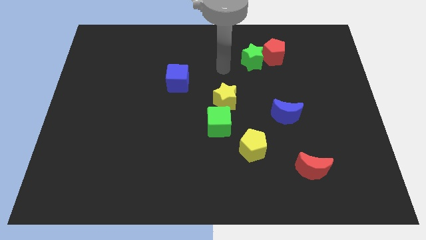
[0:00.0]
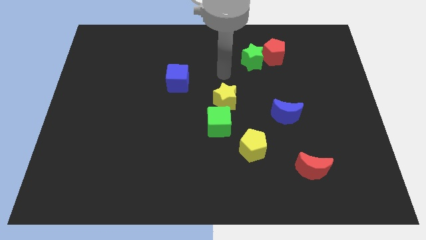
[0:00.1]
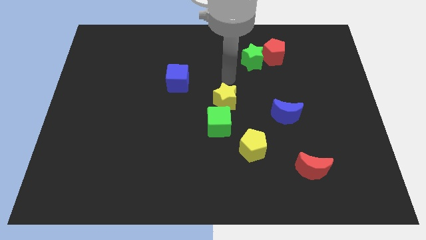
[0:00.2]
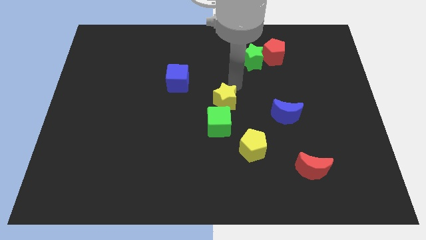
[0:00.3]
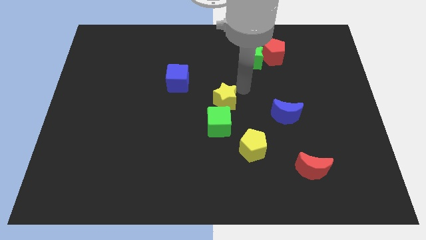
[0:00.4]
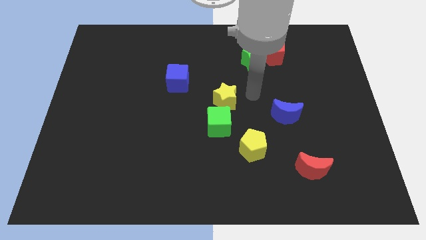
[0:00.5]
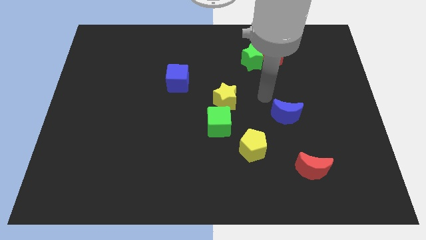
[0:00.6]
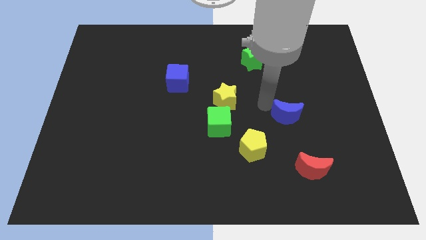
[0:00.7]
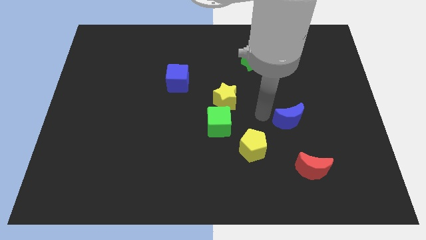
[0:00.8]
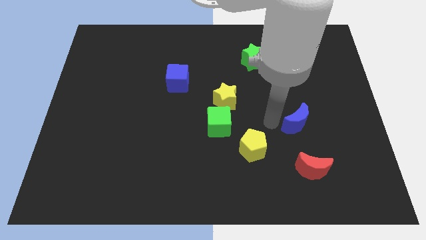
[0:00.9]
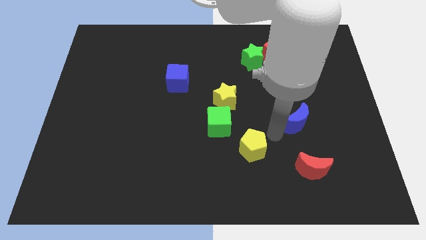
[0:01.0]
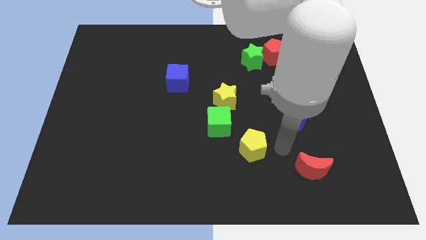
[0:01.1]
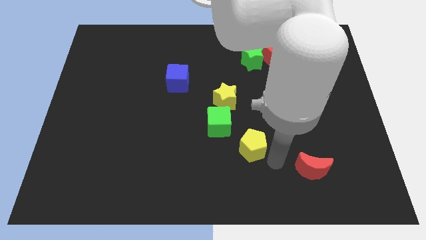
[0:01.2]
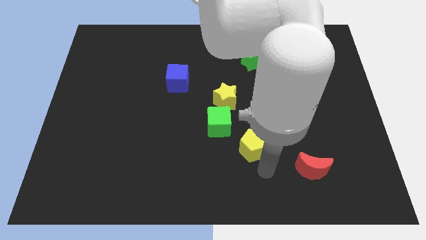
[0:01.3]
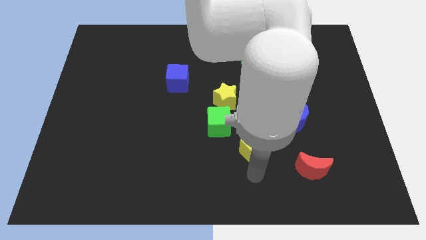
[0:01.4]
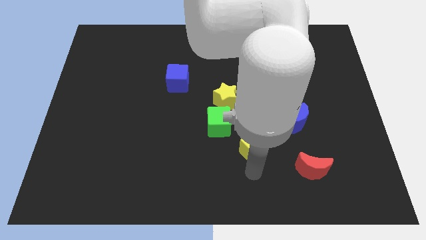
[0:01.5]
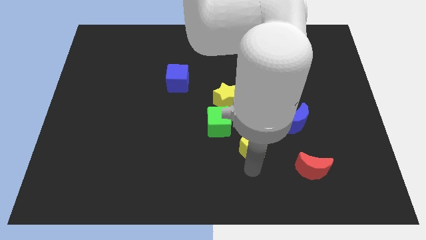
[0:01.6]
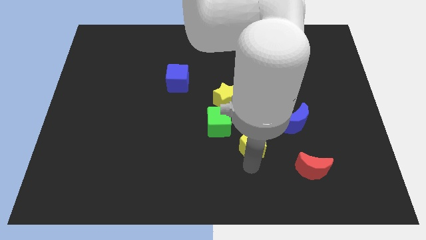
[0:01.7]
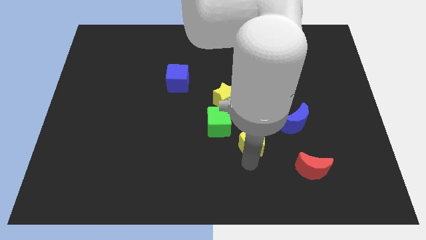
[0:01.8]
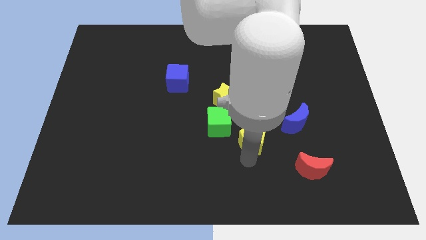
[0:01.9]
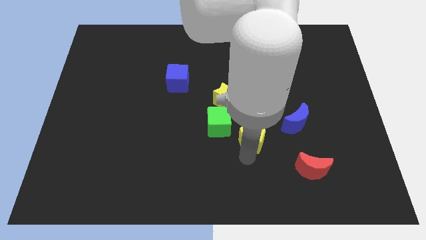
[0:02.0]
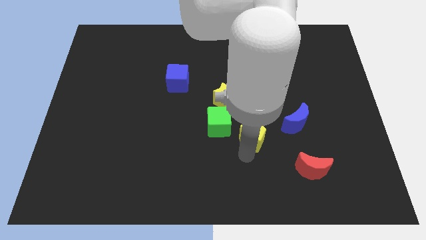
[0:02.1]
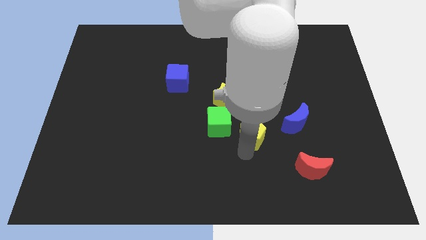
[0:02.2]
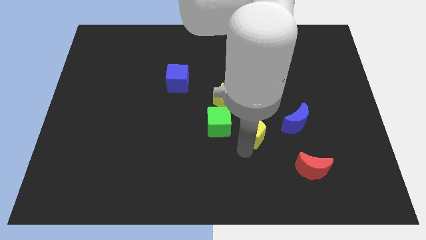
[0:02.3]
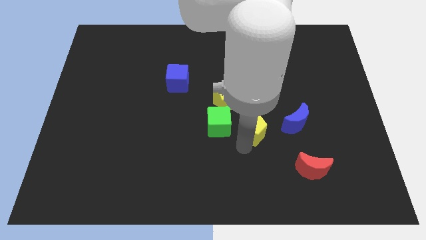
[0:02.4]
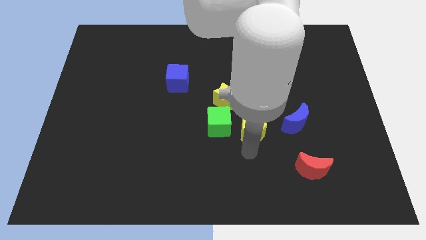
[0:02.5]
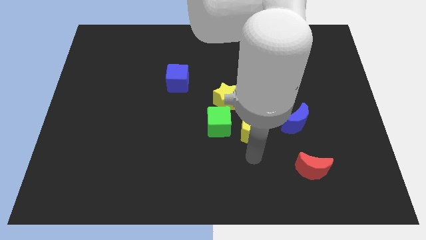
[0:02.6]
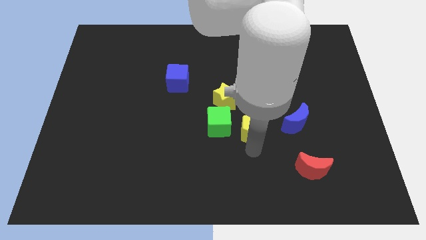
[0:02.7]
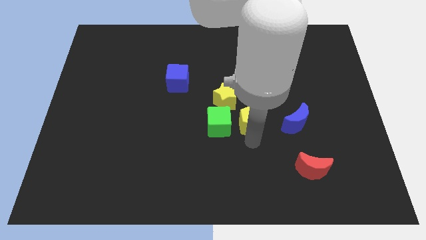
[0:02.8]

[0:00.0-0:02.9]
slightly slide the yellow pentagon up

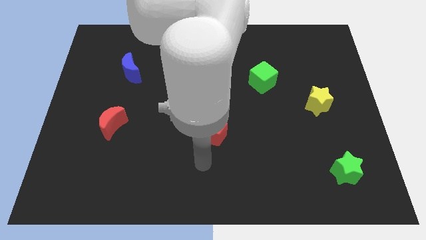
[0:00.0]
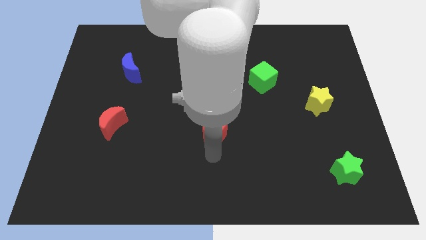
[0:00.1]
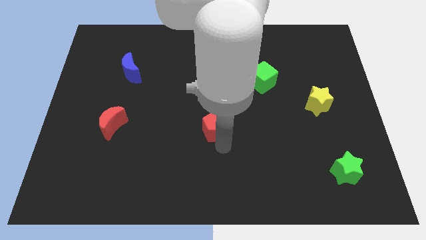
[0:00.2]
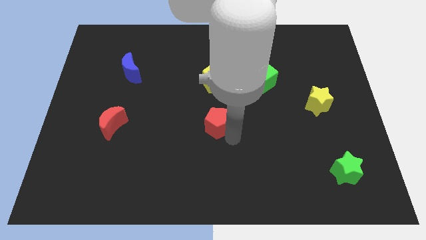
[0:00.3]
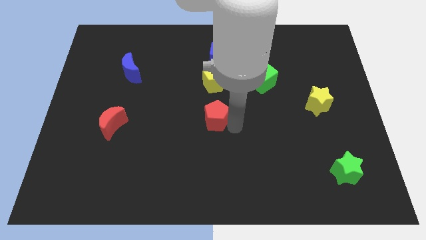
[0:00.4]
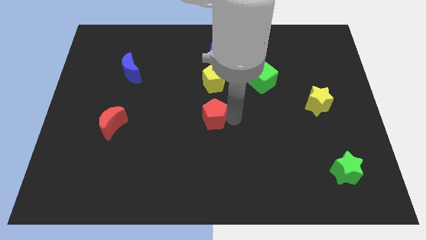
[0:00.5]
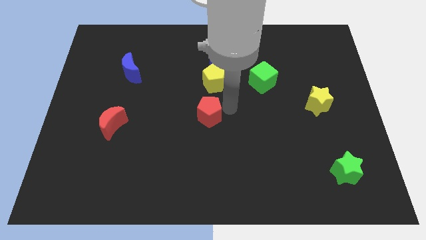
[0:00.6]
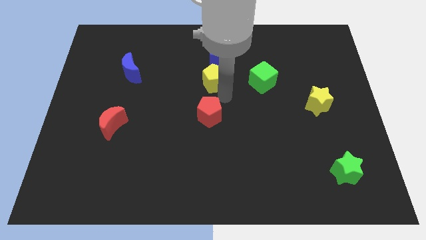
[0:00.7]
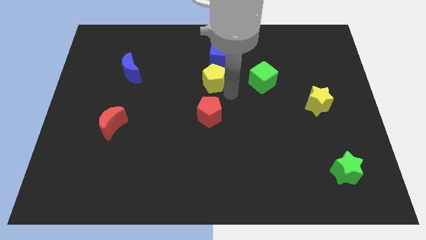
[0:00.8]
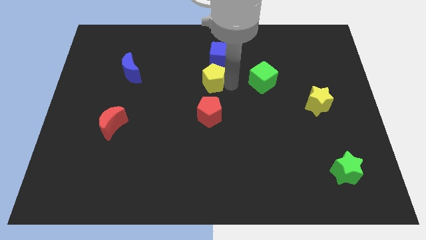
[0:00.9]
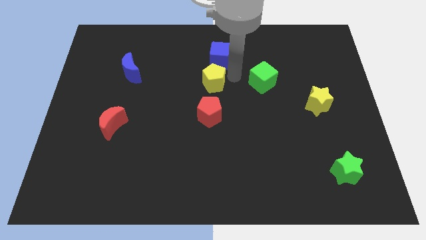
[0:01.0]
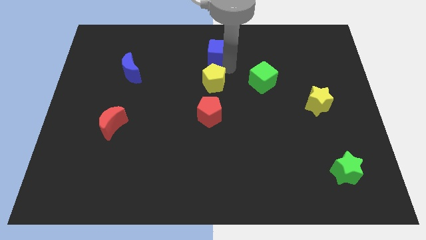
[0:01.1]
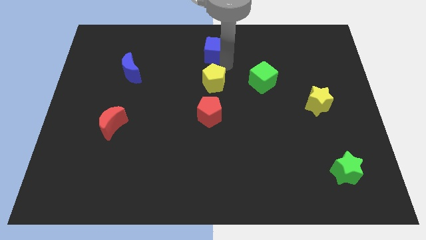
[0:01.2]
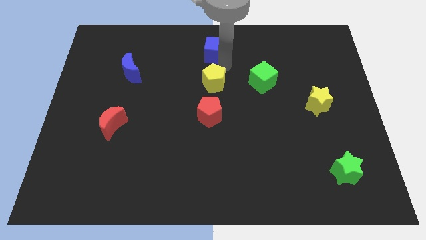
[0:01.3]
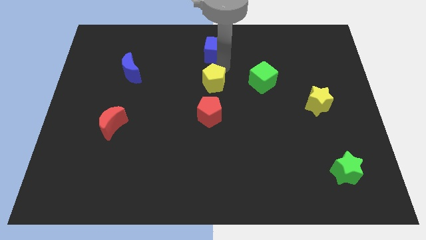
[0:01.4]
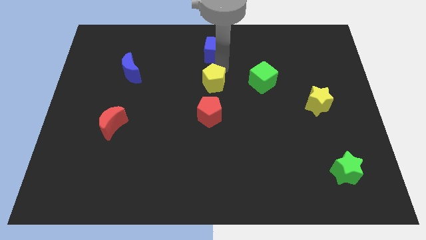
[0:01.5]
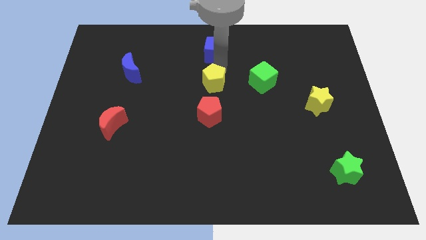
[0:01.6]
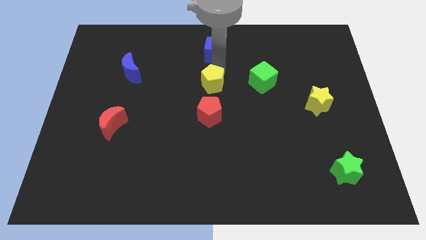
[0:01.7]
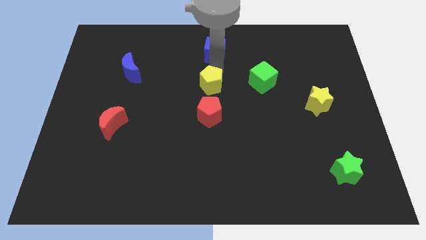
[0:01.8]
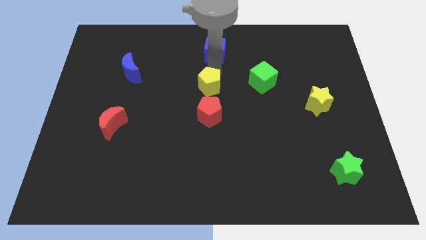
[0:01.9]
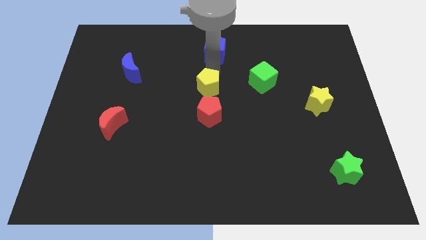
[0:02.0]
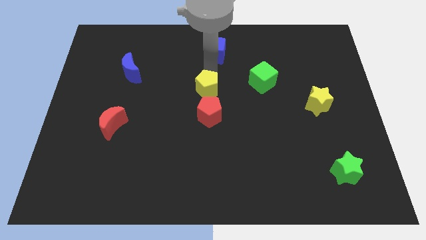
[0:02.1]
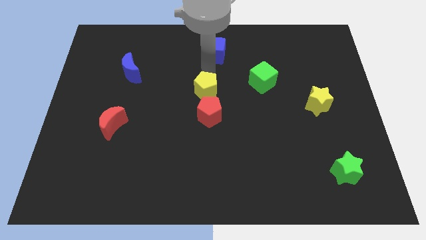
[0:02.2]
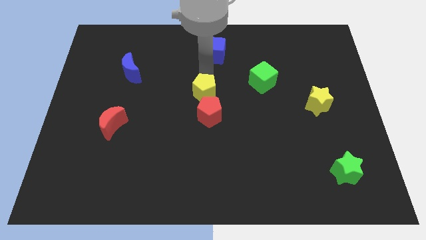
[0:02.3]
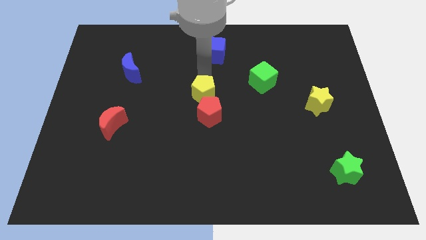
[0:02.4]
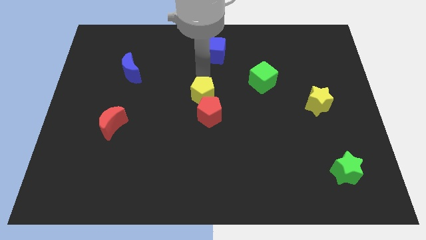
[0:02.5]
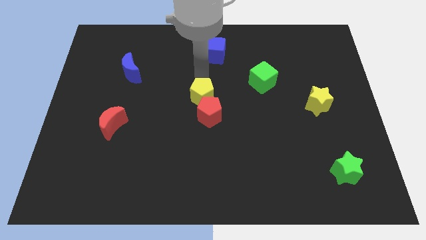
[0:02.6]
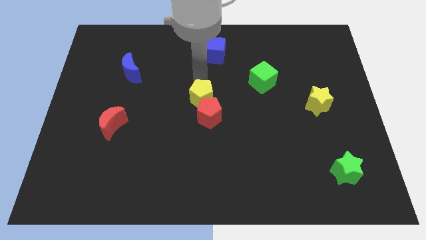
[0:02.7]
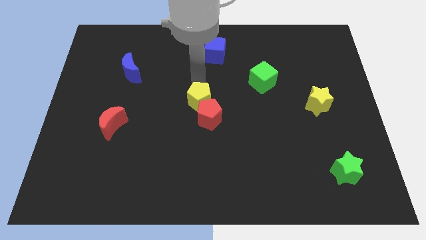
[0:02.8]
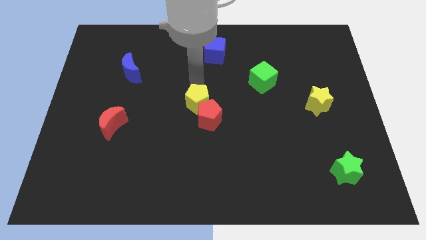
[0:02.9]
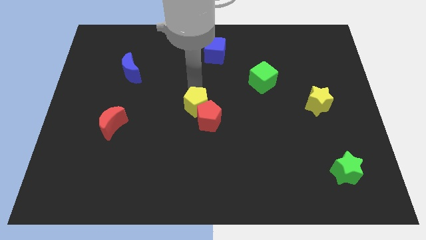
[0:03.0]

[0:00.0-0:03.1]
slightly slide the yellow pentagon downwards

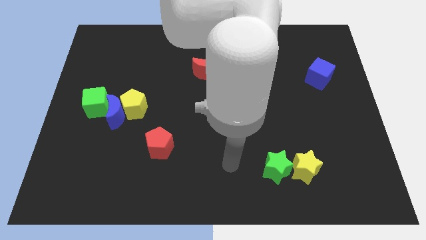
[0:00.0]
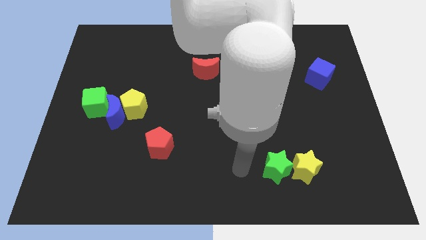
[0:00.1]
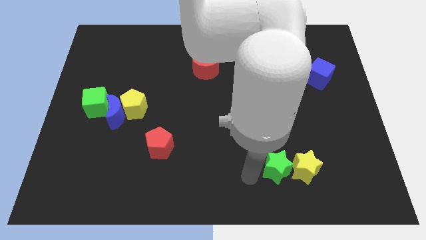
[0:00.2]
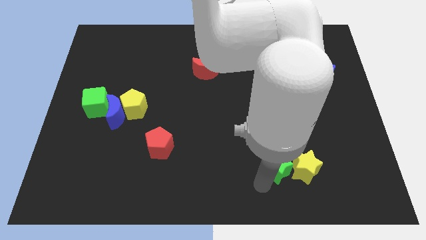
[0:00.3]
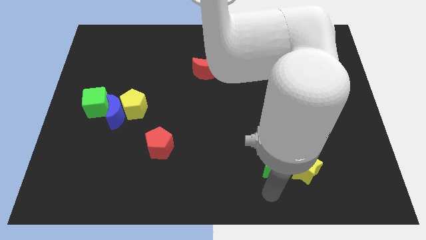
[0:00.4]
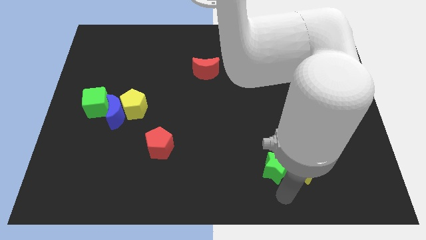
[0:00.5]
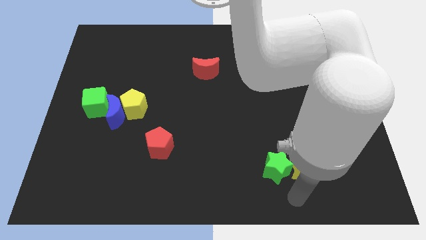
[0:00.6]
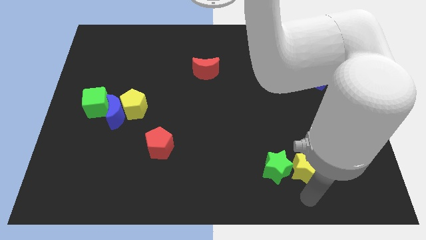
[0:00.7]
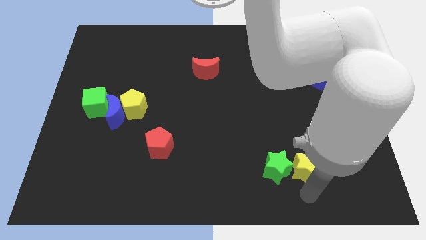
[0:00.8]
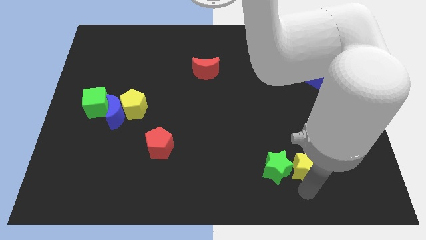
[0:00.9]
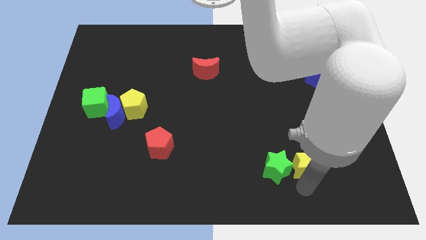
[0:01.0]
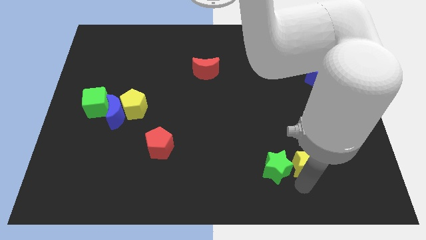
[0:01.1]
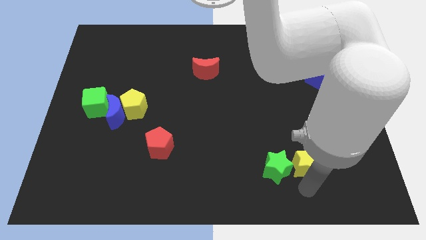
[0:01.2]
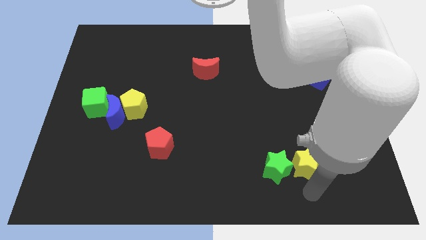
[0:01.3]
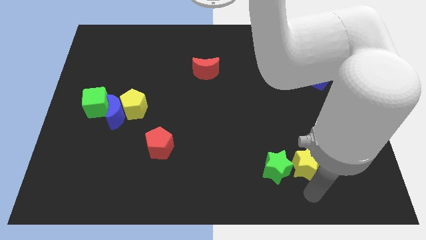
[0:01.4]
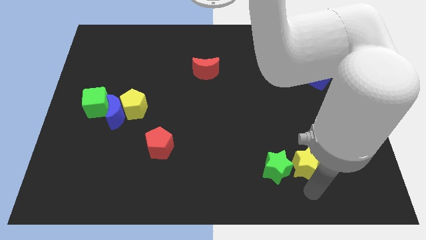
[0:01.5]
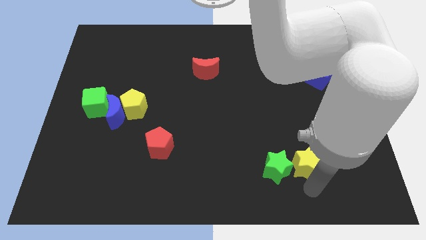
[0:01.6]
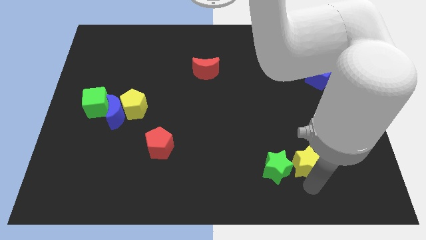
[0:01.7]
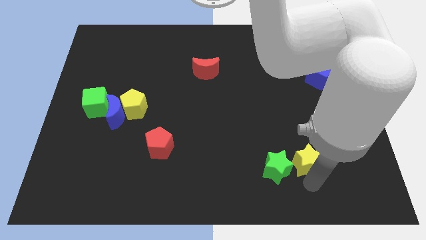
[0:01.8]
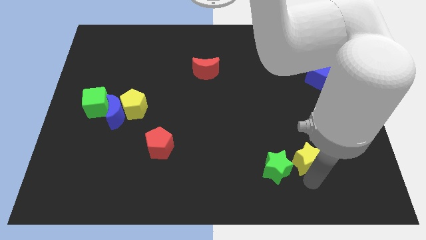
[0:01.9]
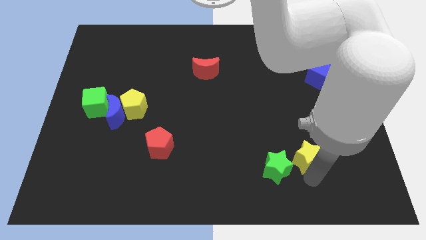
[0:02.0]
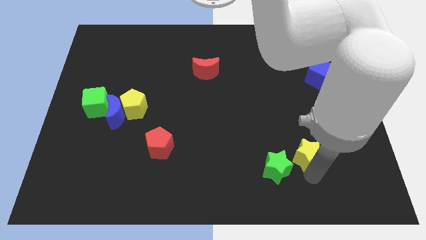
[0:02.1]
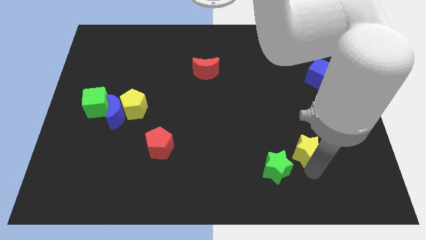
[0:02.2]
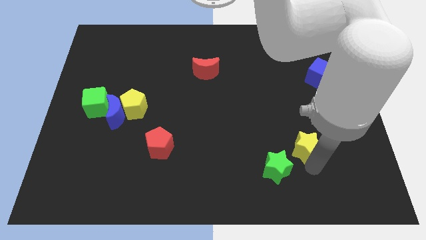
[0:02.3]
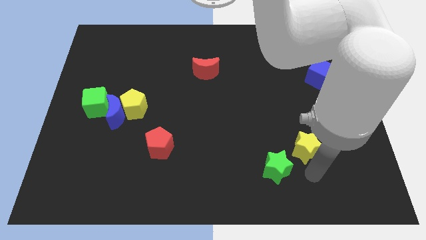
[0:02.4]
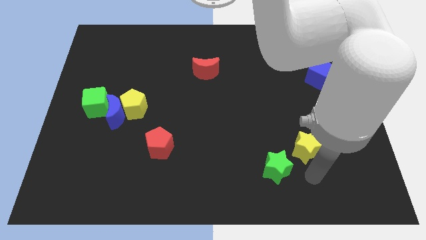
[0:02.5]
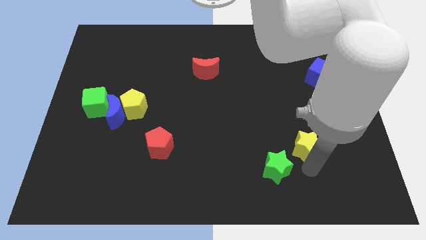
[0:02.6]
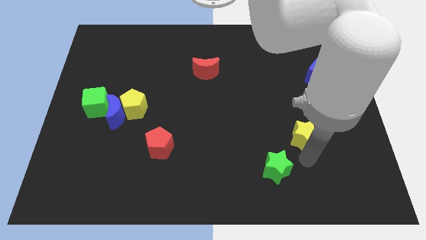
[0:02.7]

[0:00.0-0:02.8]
move the yellow star up a little bit
